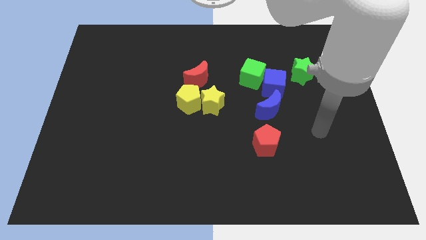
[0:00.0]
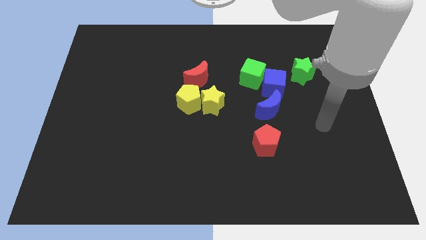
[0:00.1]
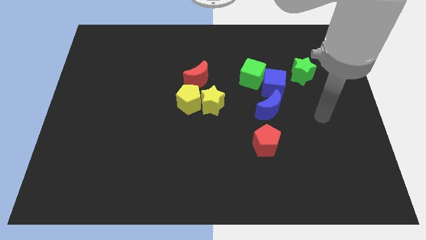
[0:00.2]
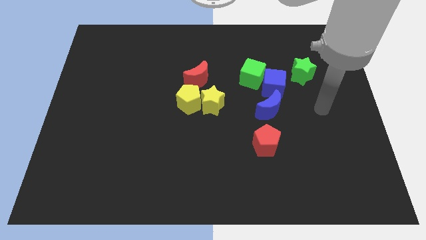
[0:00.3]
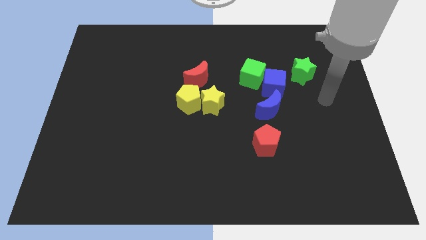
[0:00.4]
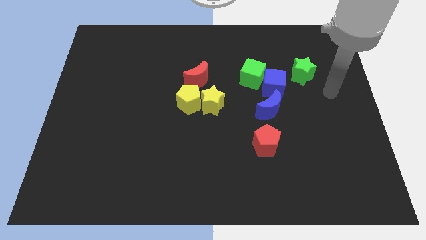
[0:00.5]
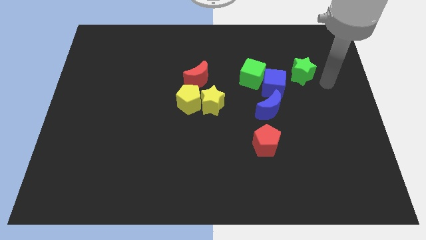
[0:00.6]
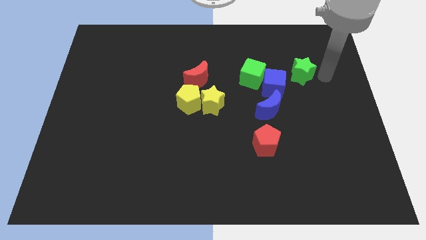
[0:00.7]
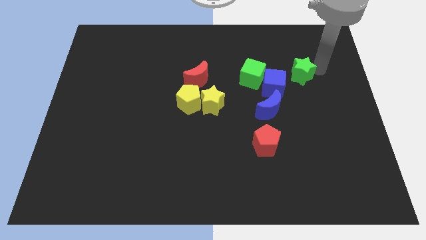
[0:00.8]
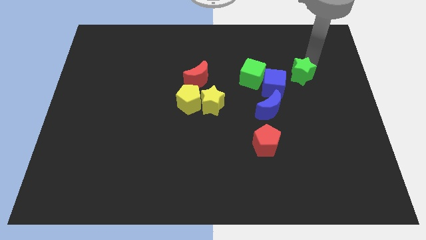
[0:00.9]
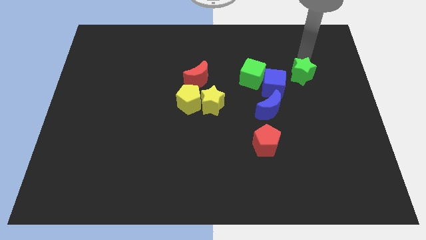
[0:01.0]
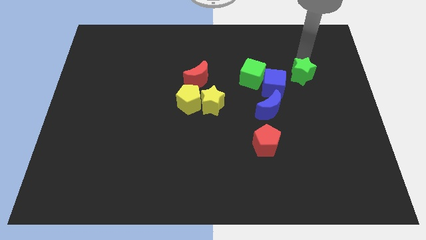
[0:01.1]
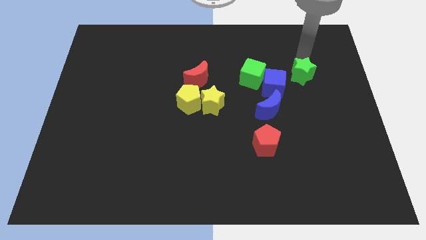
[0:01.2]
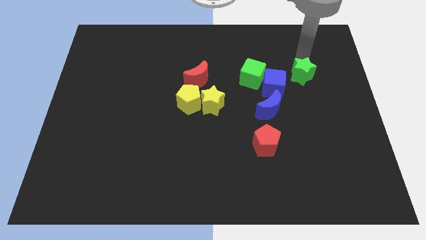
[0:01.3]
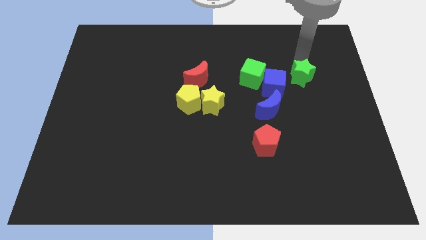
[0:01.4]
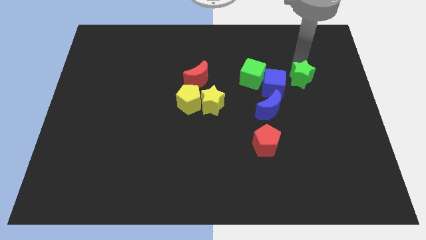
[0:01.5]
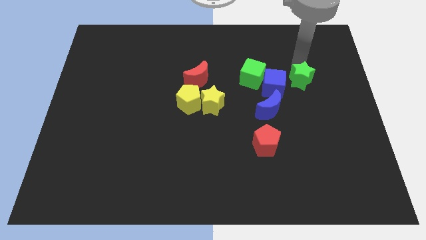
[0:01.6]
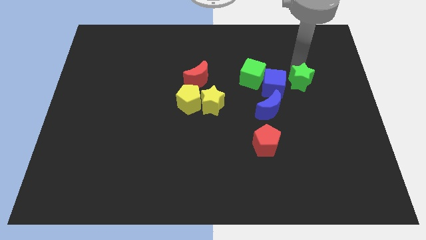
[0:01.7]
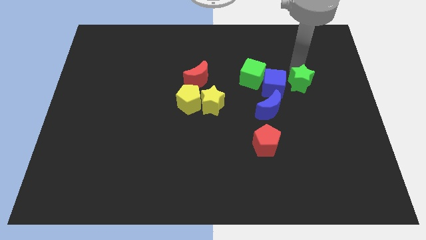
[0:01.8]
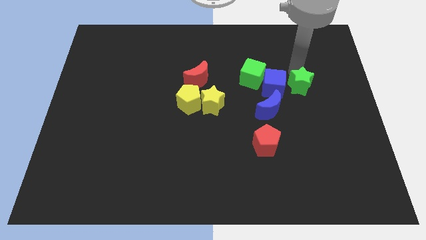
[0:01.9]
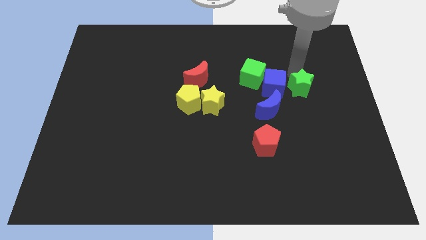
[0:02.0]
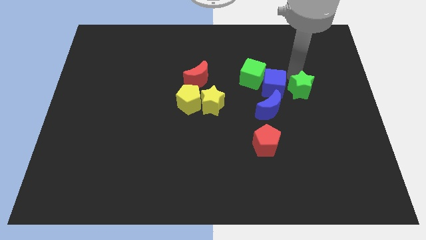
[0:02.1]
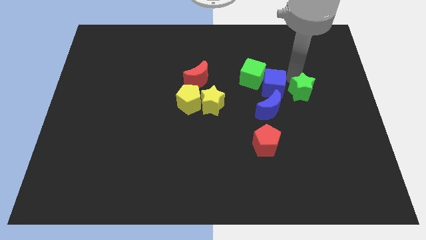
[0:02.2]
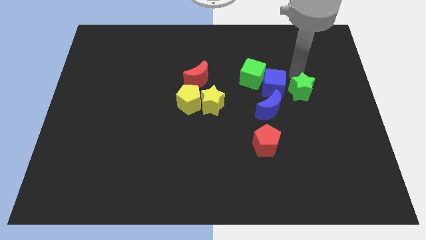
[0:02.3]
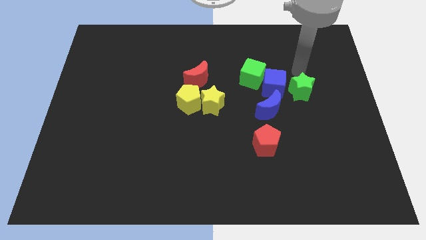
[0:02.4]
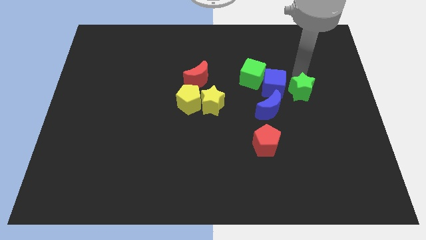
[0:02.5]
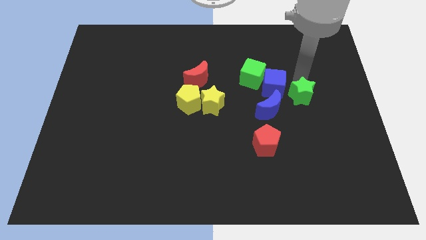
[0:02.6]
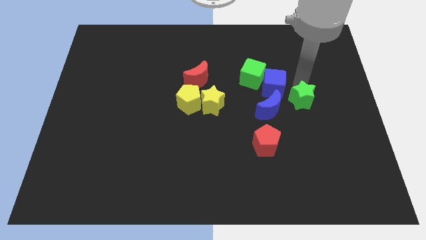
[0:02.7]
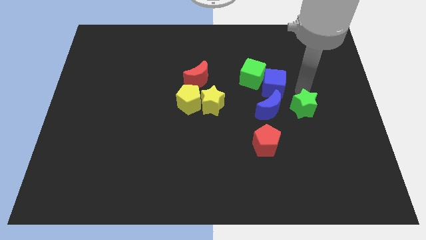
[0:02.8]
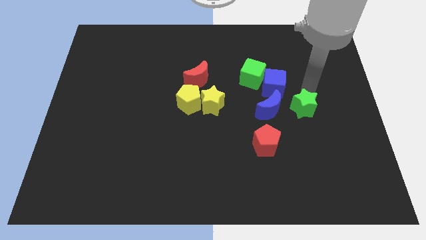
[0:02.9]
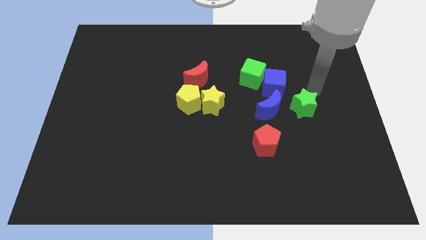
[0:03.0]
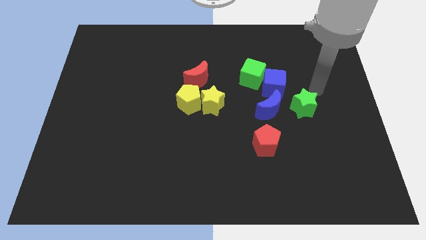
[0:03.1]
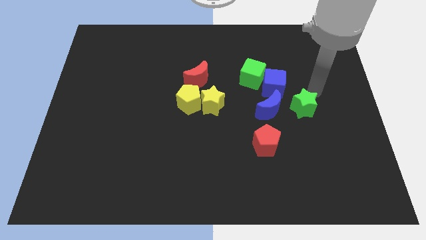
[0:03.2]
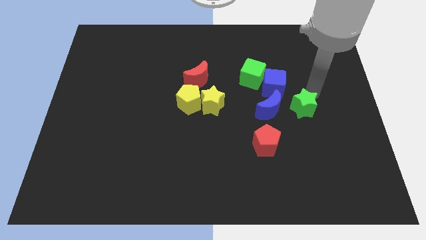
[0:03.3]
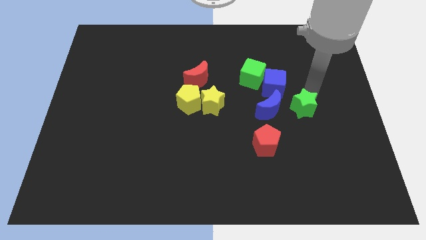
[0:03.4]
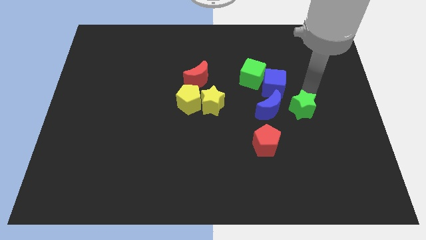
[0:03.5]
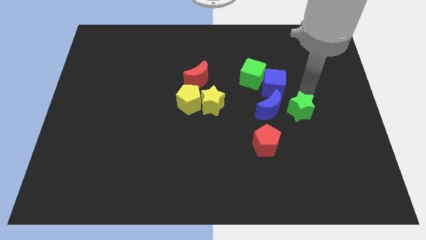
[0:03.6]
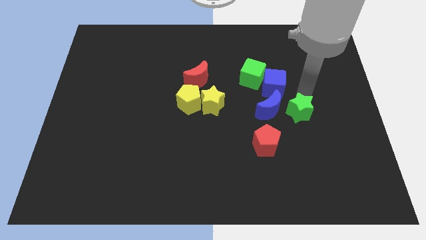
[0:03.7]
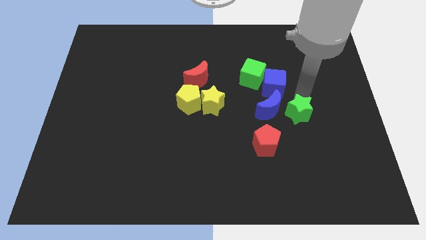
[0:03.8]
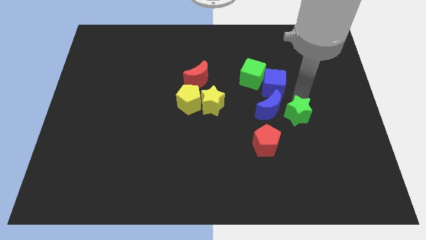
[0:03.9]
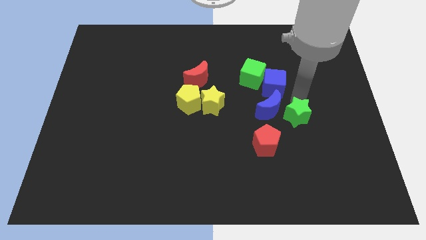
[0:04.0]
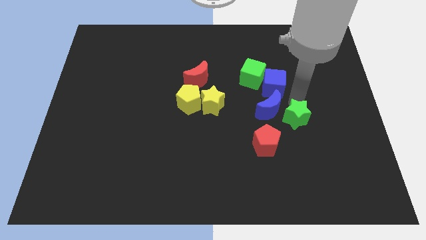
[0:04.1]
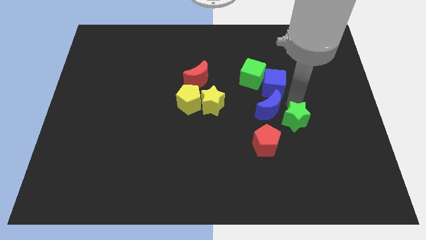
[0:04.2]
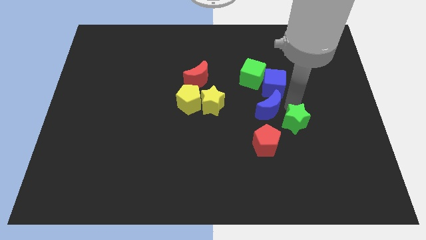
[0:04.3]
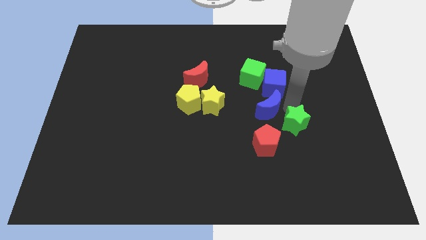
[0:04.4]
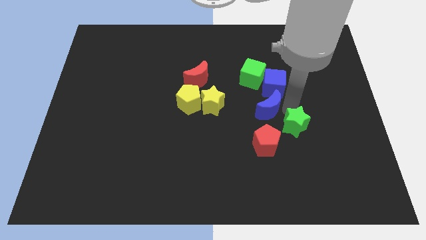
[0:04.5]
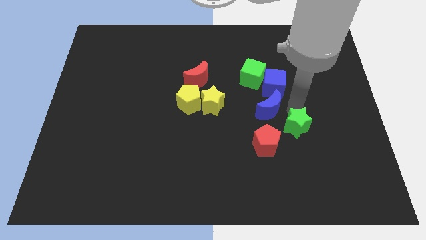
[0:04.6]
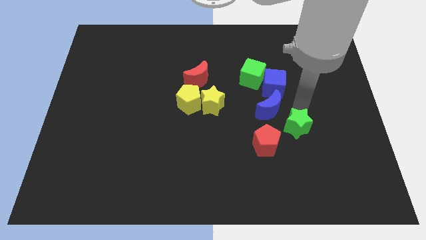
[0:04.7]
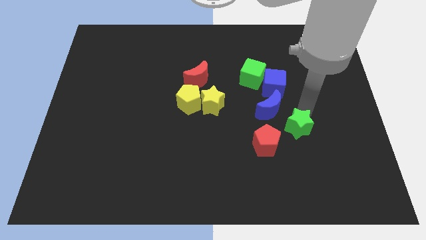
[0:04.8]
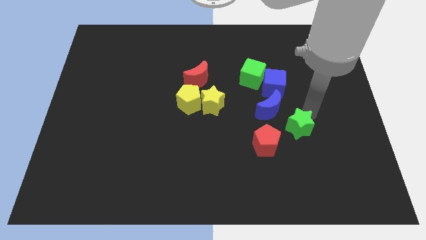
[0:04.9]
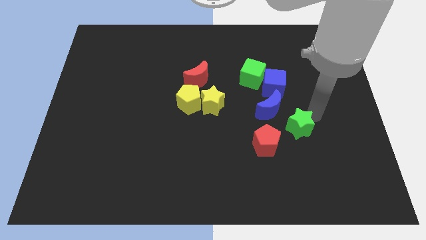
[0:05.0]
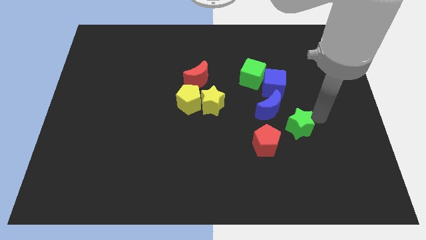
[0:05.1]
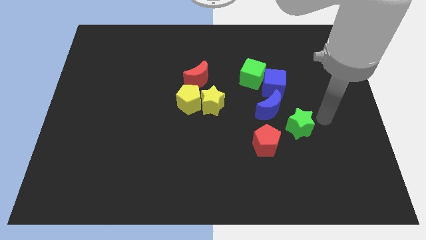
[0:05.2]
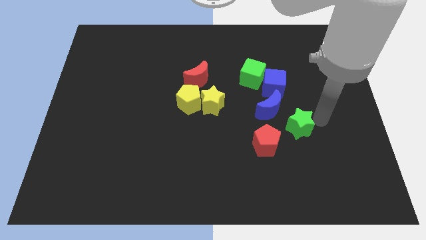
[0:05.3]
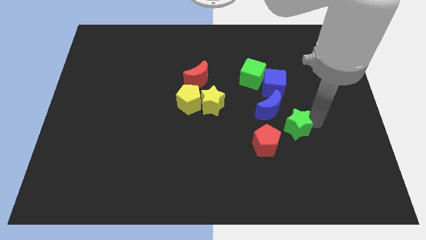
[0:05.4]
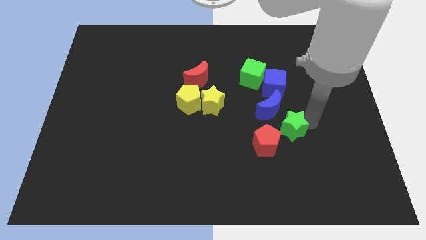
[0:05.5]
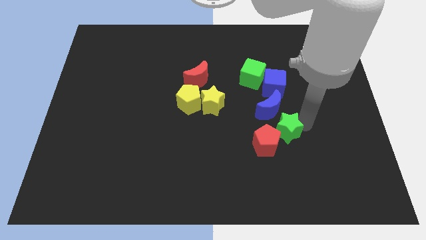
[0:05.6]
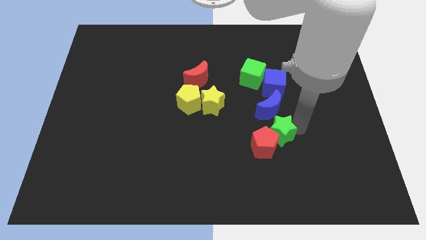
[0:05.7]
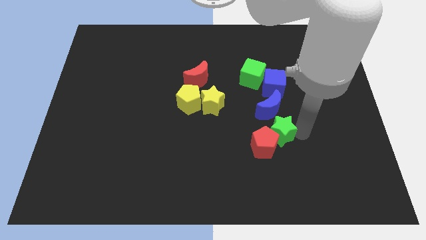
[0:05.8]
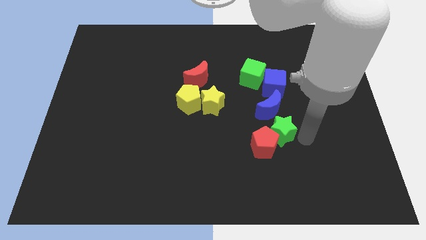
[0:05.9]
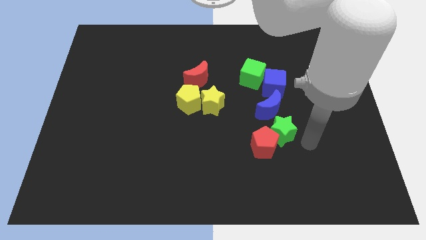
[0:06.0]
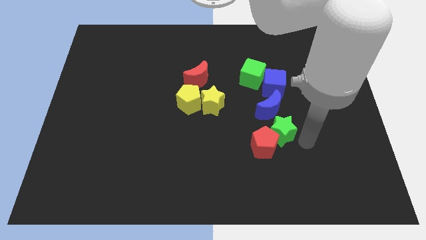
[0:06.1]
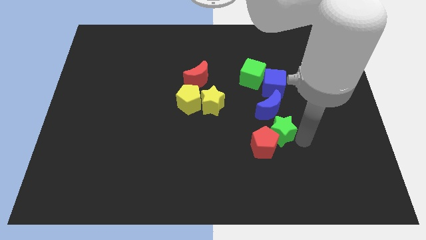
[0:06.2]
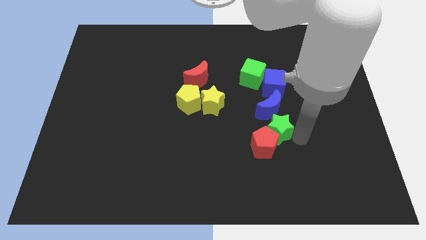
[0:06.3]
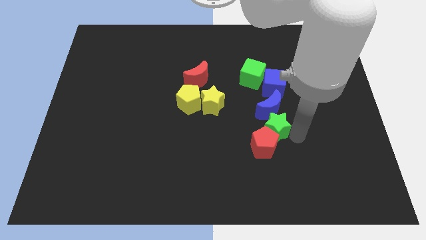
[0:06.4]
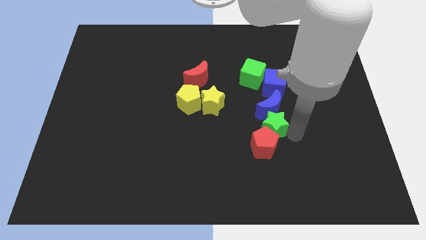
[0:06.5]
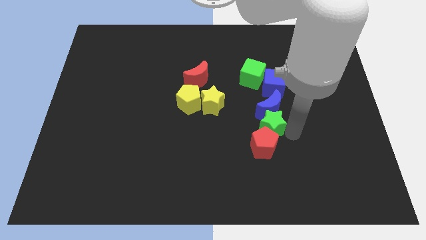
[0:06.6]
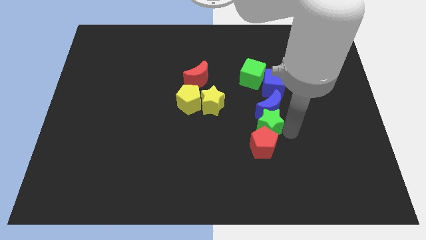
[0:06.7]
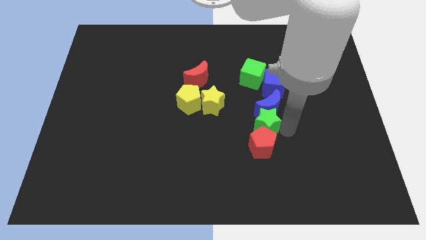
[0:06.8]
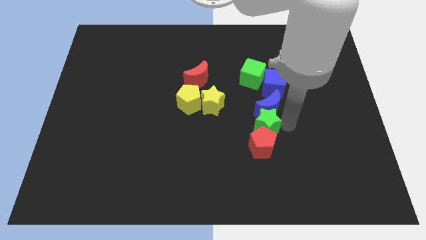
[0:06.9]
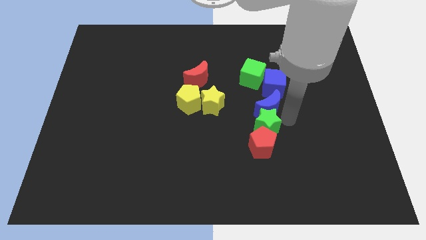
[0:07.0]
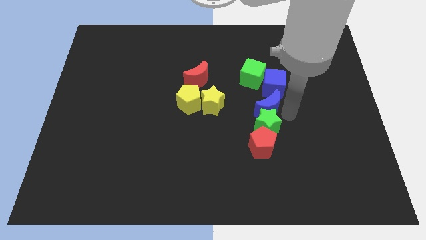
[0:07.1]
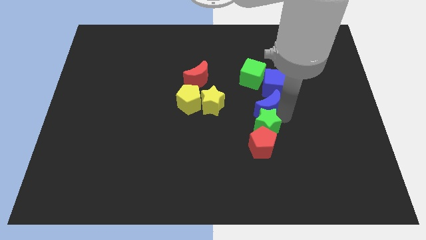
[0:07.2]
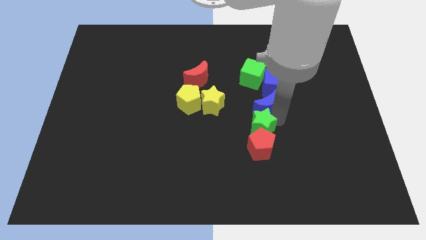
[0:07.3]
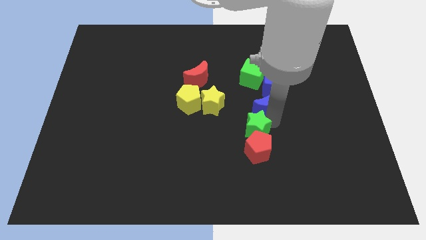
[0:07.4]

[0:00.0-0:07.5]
slide the green star down and to the left

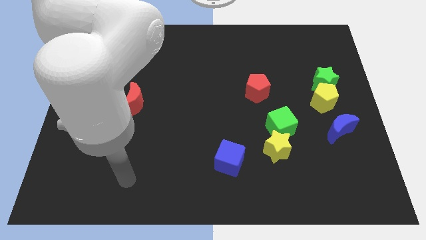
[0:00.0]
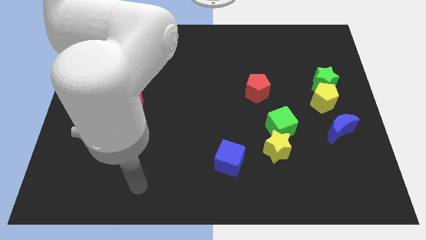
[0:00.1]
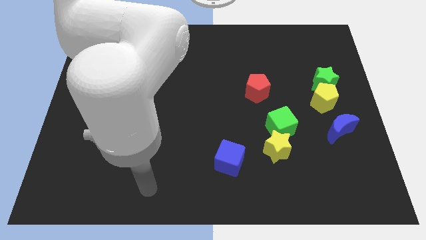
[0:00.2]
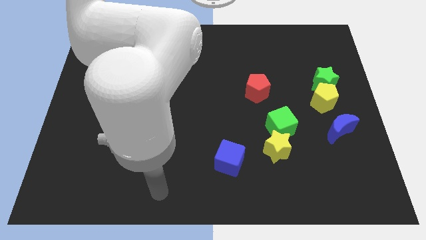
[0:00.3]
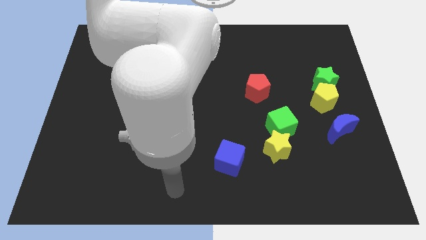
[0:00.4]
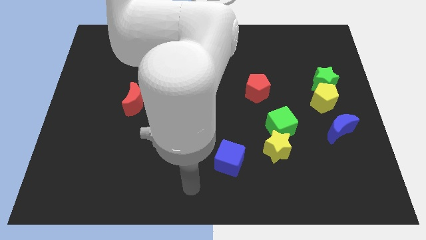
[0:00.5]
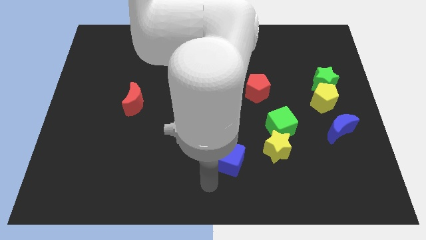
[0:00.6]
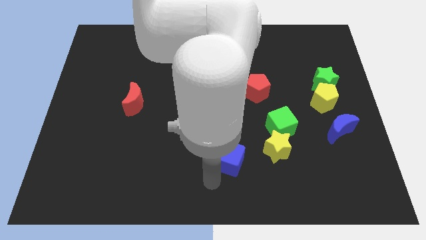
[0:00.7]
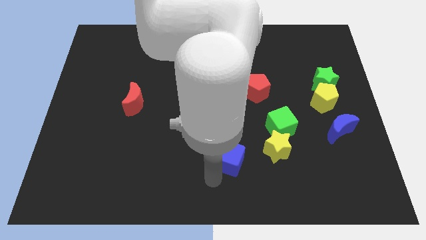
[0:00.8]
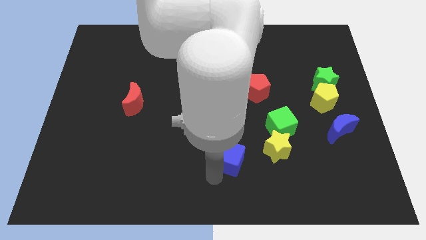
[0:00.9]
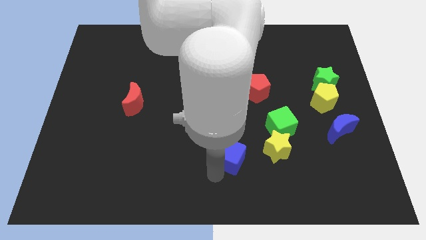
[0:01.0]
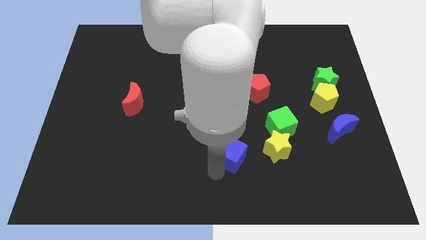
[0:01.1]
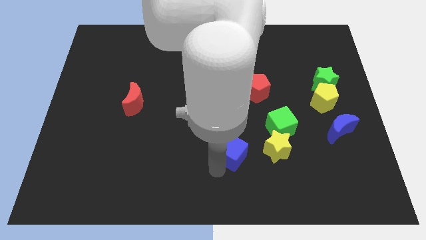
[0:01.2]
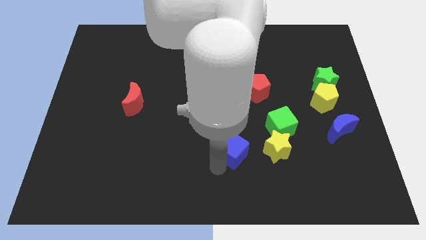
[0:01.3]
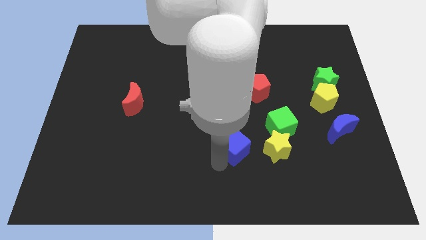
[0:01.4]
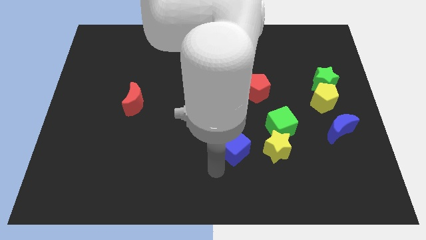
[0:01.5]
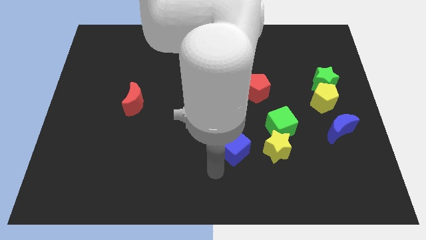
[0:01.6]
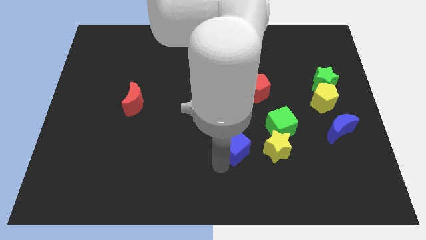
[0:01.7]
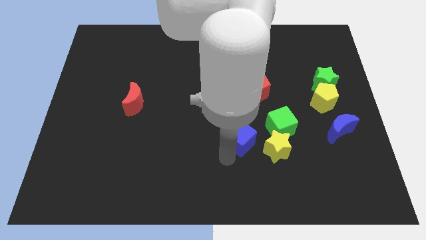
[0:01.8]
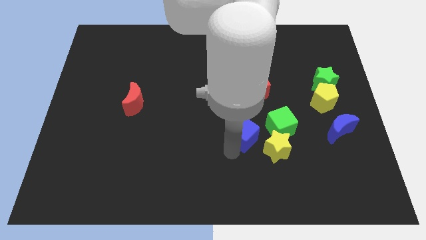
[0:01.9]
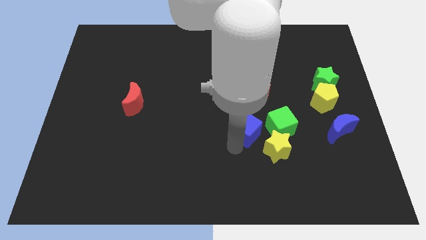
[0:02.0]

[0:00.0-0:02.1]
push the blue cube diagonally upwards and to the right a little bit
